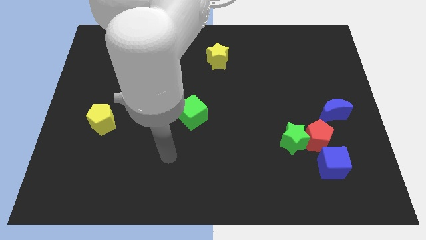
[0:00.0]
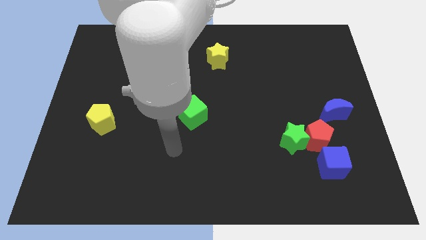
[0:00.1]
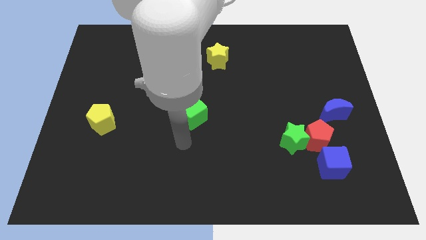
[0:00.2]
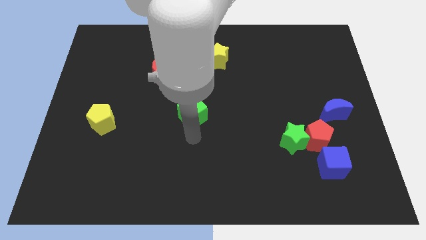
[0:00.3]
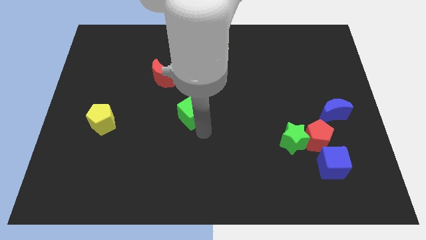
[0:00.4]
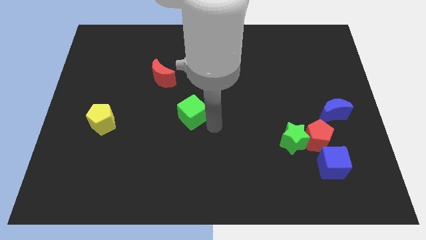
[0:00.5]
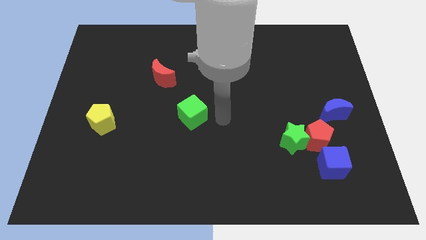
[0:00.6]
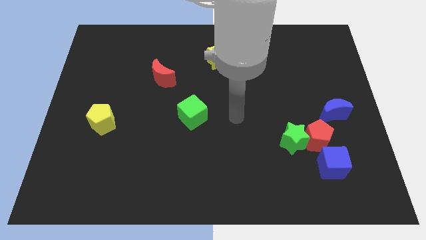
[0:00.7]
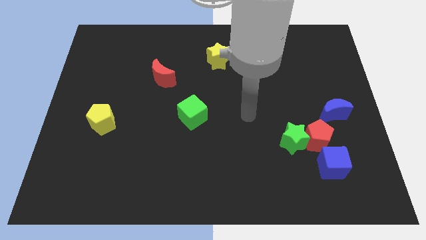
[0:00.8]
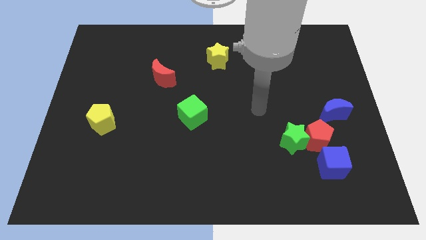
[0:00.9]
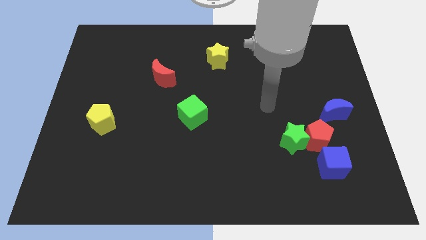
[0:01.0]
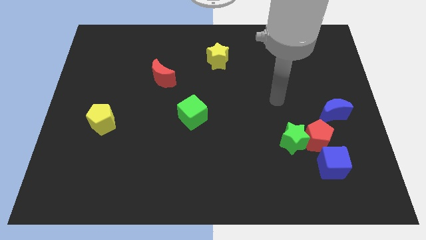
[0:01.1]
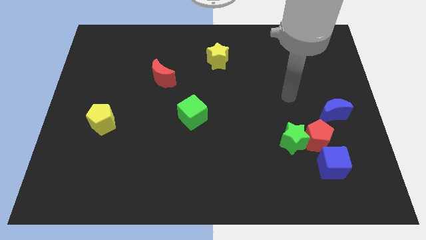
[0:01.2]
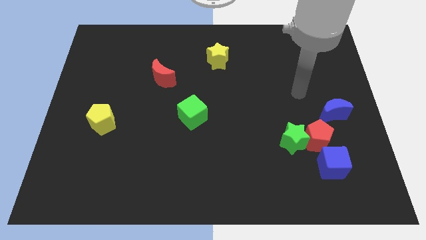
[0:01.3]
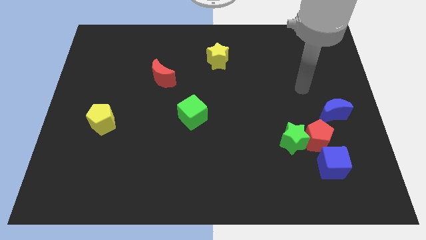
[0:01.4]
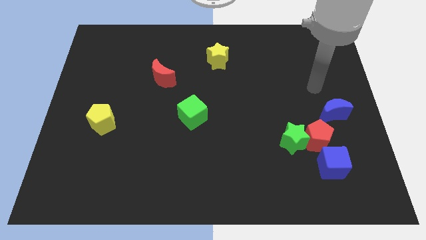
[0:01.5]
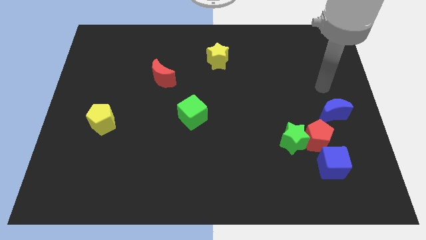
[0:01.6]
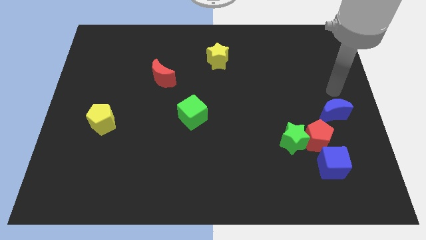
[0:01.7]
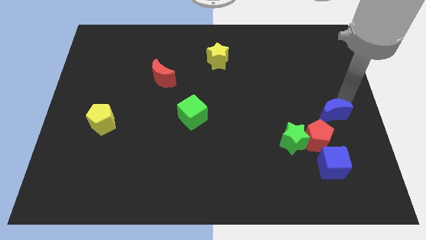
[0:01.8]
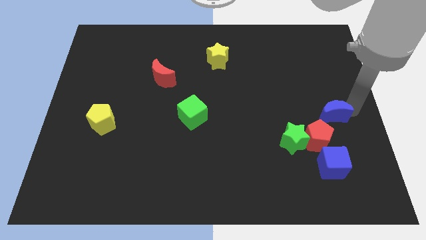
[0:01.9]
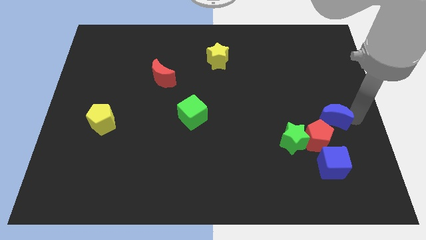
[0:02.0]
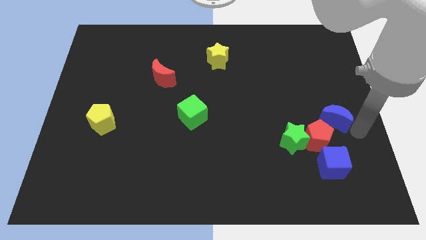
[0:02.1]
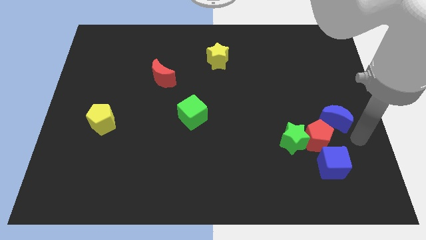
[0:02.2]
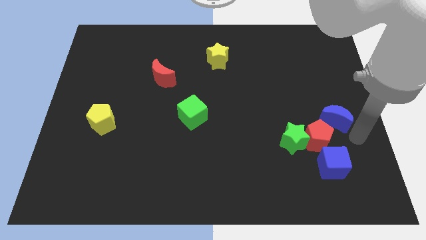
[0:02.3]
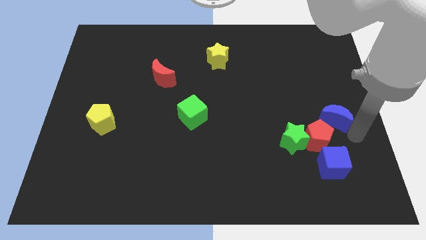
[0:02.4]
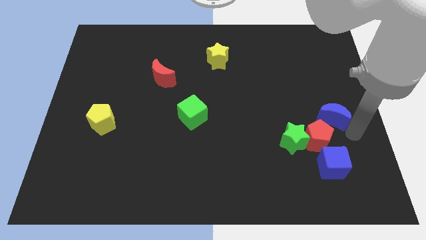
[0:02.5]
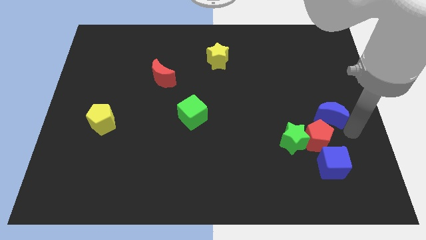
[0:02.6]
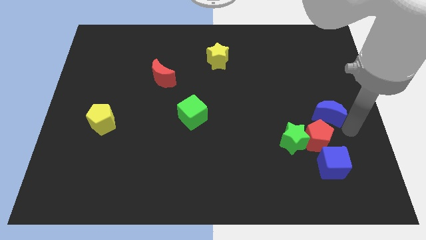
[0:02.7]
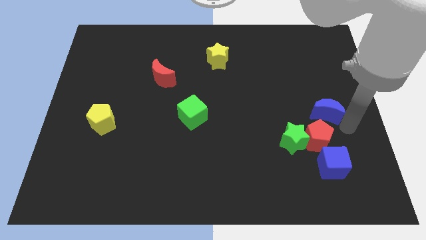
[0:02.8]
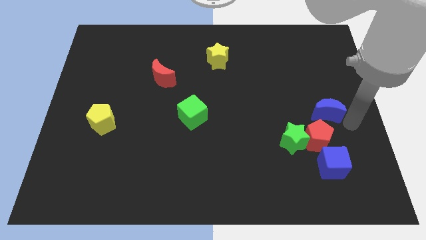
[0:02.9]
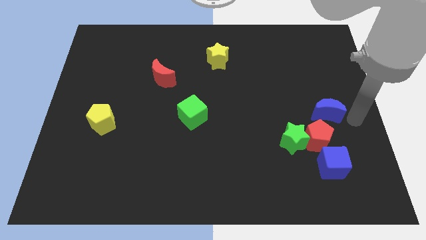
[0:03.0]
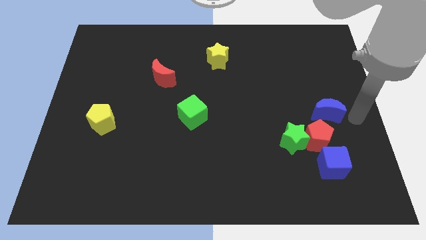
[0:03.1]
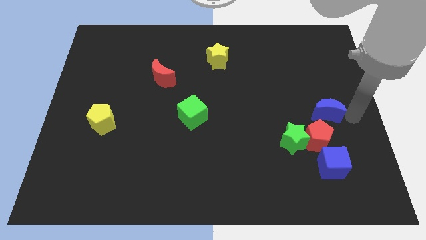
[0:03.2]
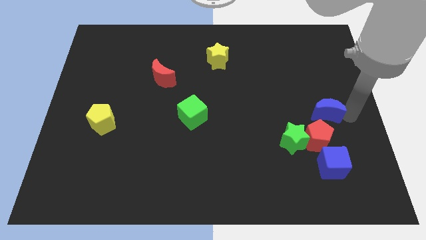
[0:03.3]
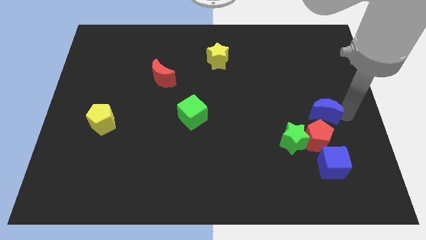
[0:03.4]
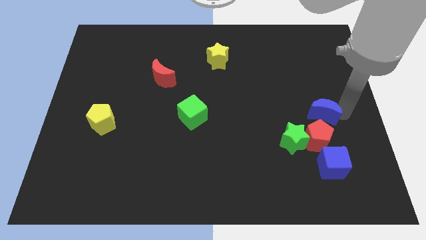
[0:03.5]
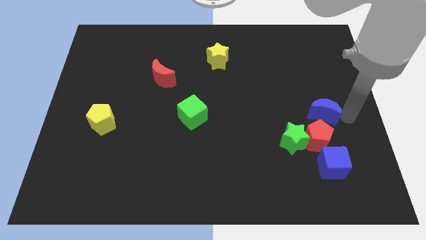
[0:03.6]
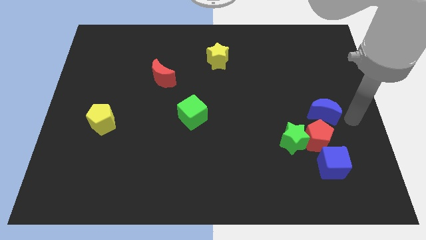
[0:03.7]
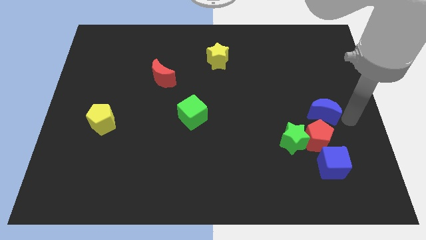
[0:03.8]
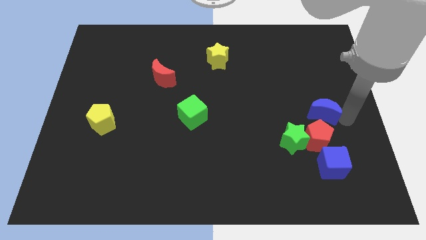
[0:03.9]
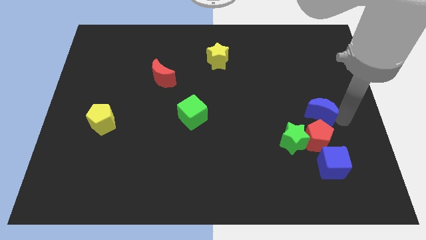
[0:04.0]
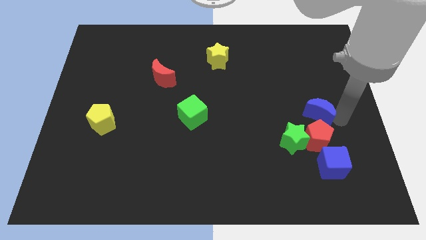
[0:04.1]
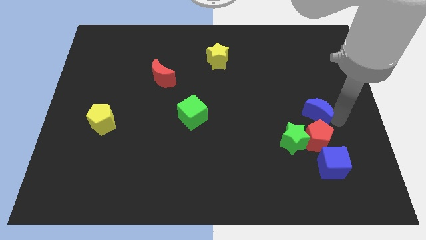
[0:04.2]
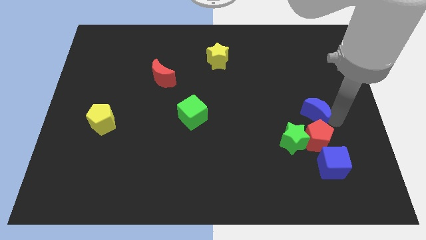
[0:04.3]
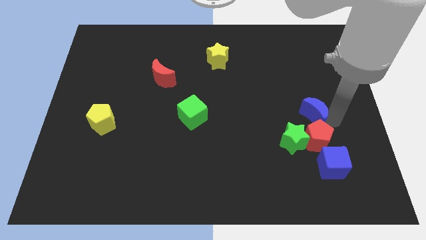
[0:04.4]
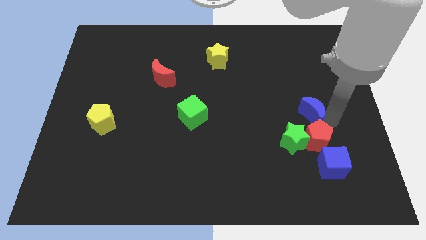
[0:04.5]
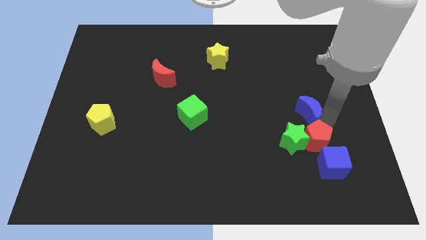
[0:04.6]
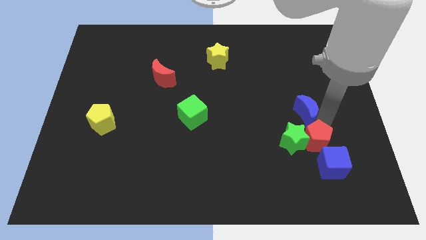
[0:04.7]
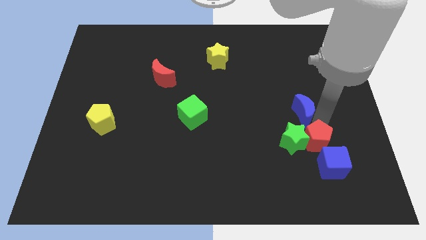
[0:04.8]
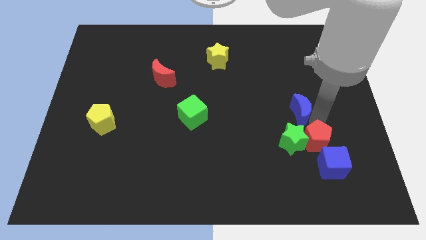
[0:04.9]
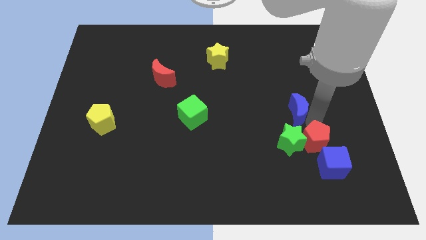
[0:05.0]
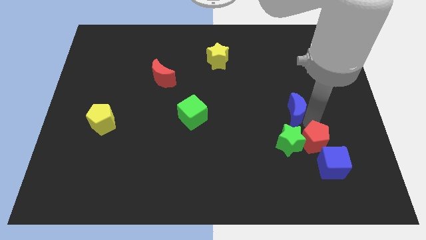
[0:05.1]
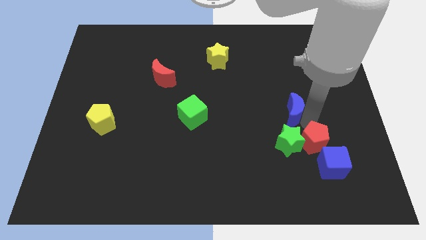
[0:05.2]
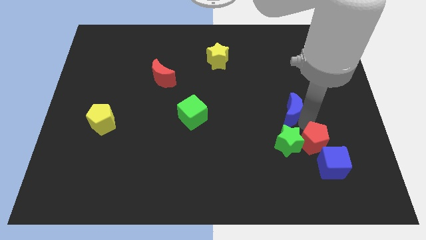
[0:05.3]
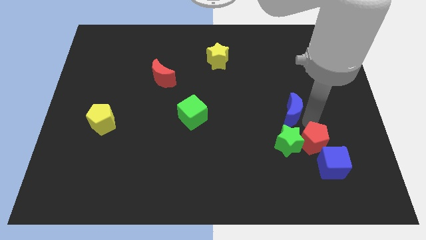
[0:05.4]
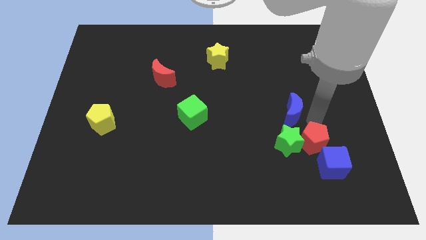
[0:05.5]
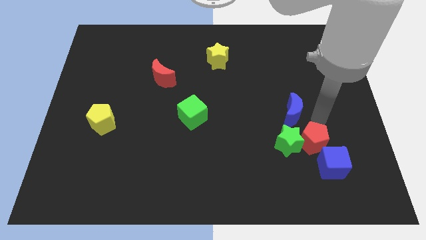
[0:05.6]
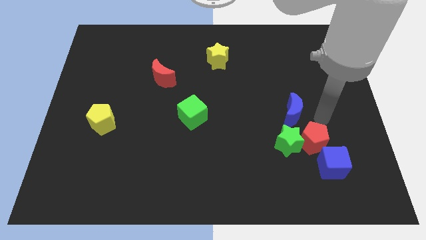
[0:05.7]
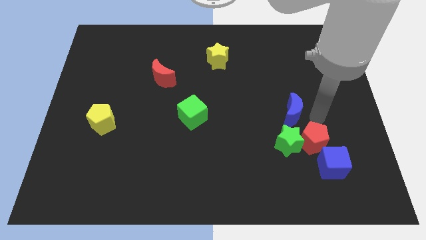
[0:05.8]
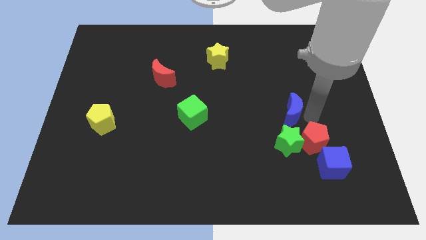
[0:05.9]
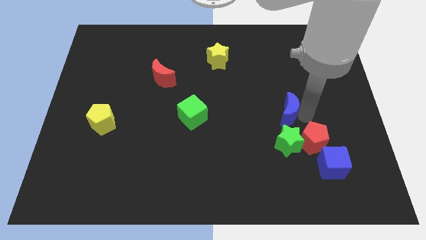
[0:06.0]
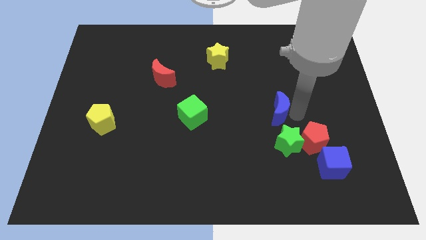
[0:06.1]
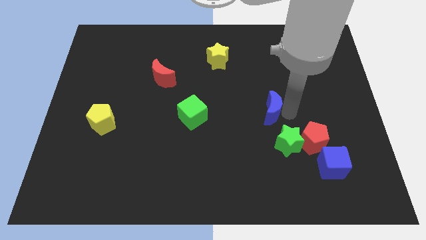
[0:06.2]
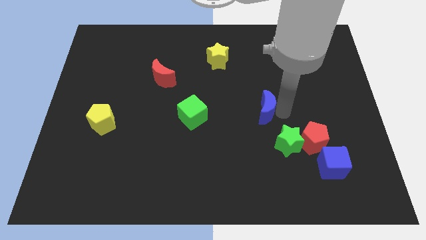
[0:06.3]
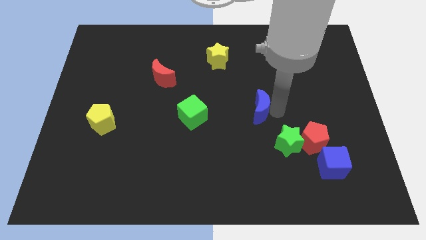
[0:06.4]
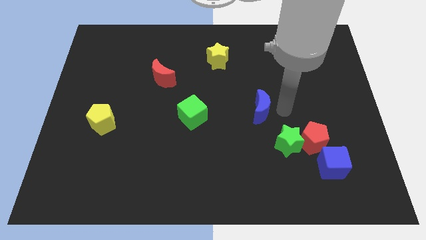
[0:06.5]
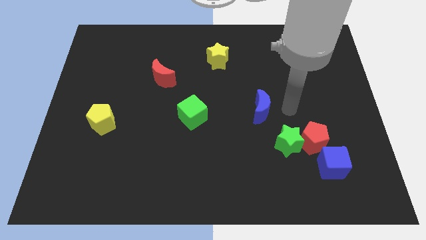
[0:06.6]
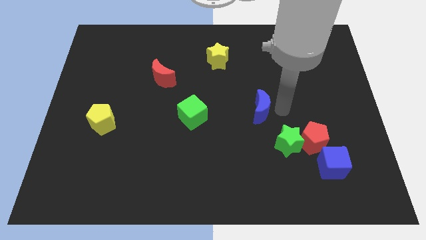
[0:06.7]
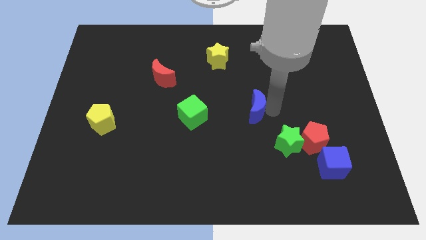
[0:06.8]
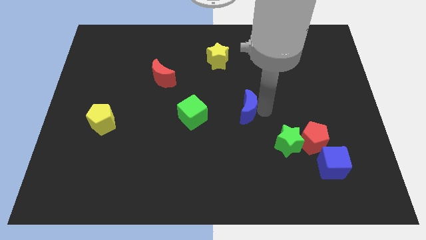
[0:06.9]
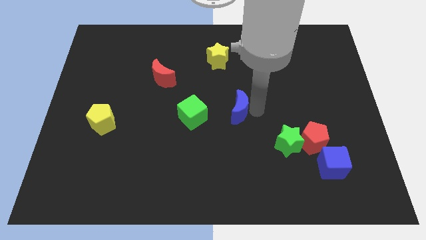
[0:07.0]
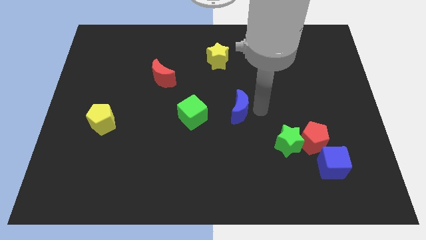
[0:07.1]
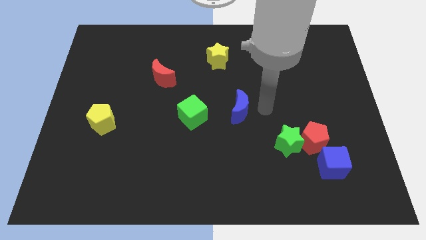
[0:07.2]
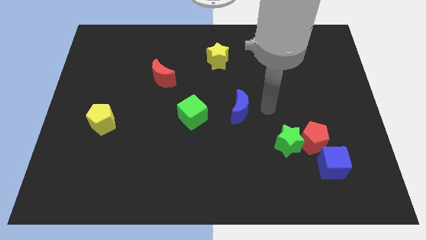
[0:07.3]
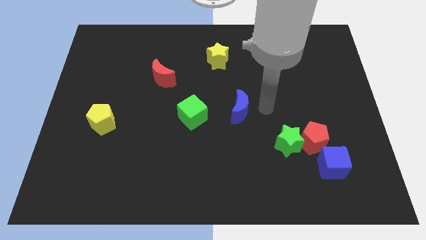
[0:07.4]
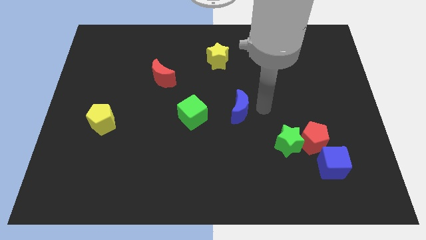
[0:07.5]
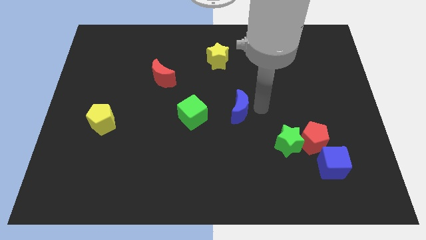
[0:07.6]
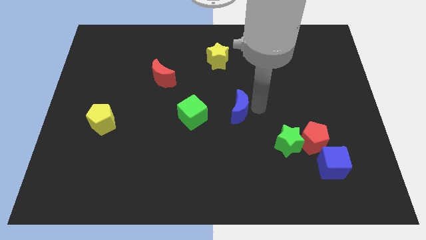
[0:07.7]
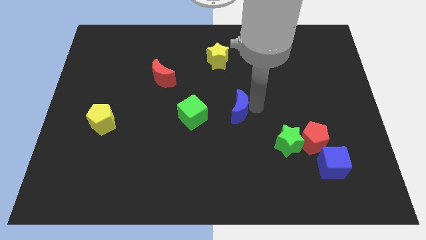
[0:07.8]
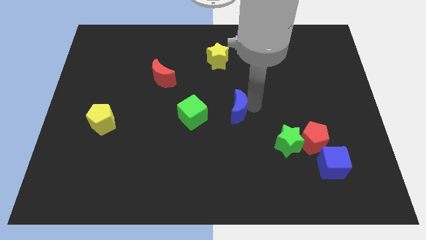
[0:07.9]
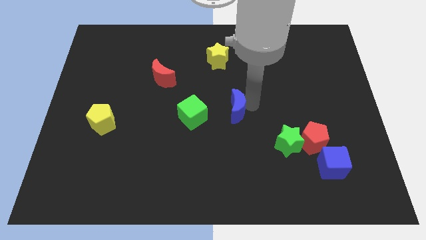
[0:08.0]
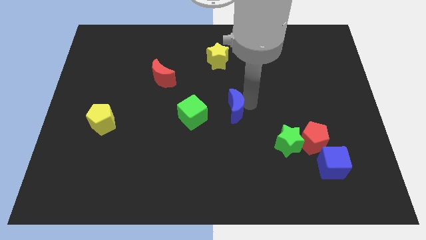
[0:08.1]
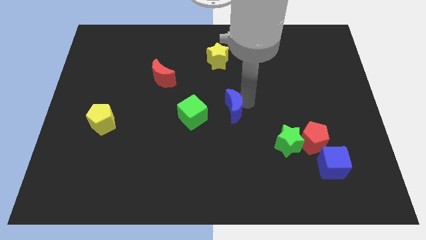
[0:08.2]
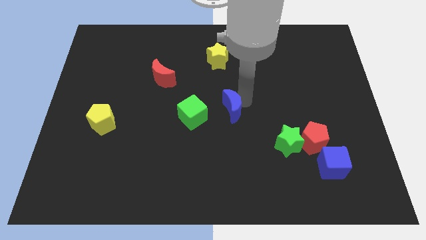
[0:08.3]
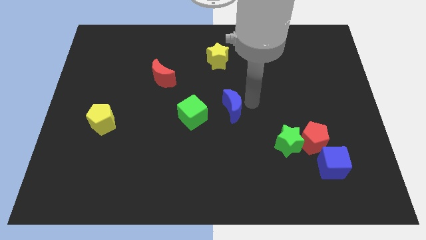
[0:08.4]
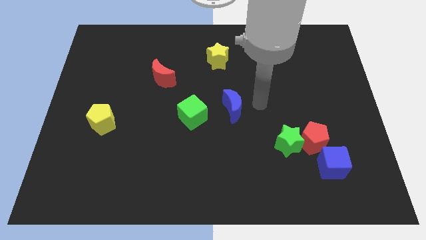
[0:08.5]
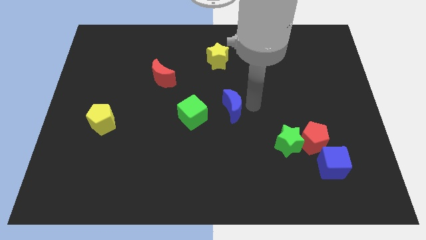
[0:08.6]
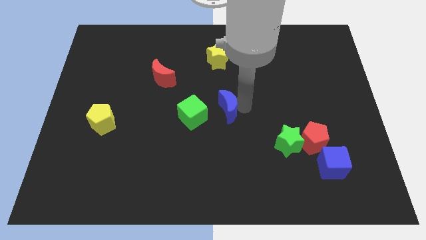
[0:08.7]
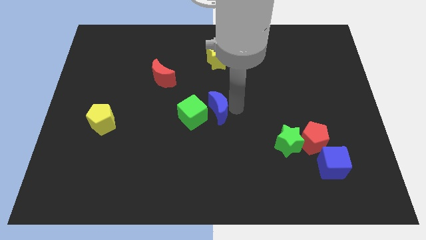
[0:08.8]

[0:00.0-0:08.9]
move the blue moon next to the green cube
